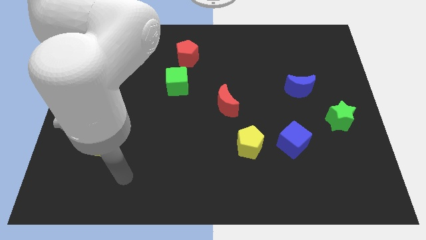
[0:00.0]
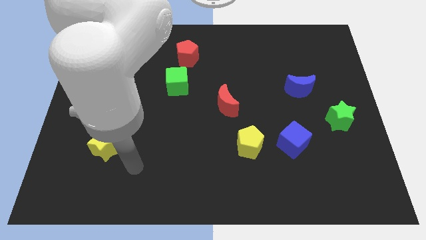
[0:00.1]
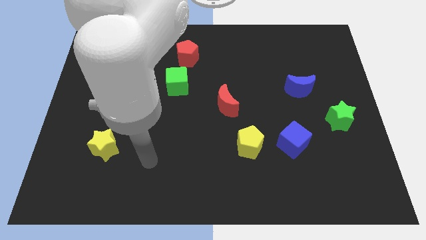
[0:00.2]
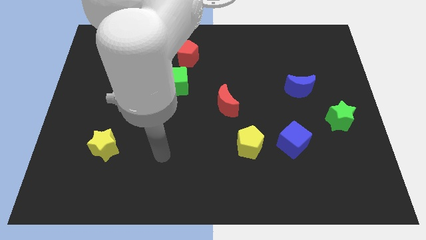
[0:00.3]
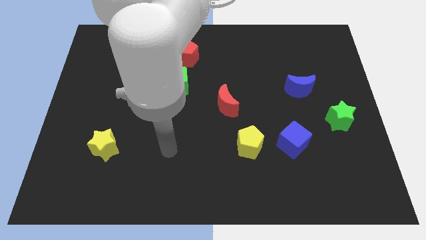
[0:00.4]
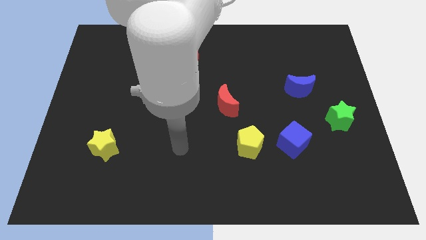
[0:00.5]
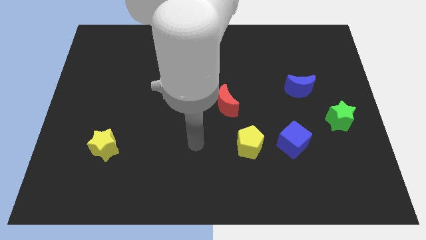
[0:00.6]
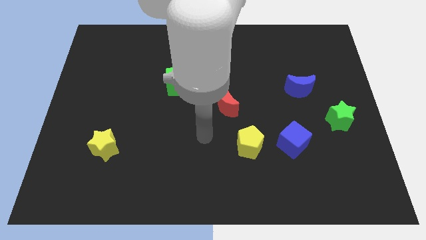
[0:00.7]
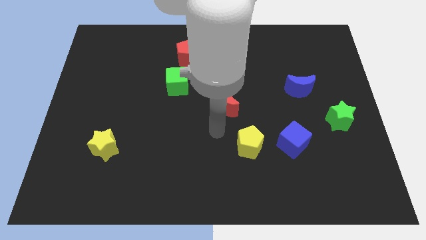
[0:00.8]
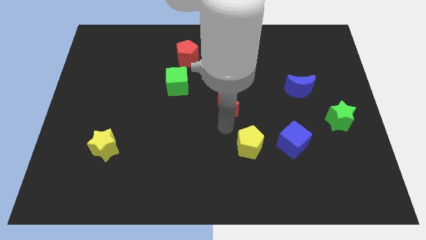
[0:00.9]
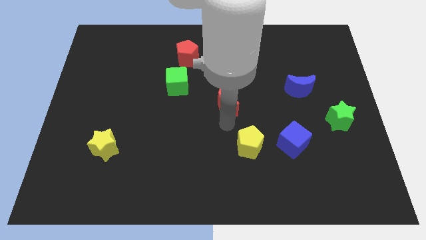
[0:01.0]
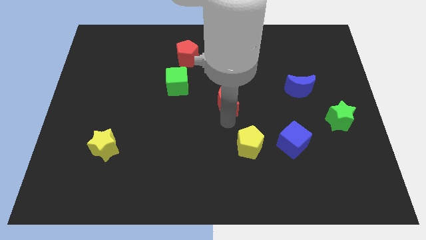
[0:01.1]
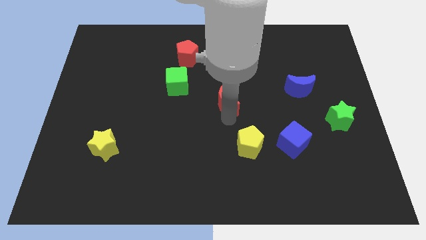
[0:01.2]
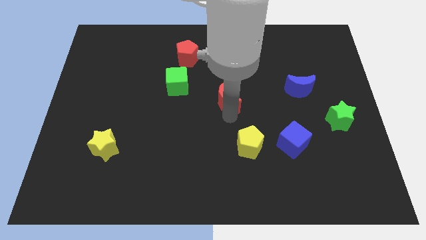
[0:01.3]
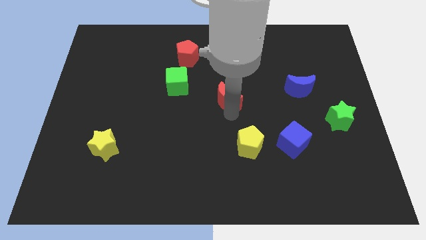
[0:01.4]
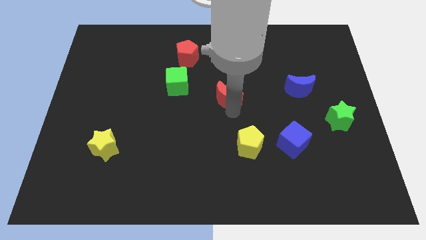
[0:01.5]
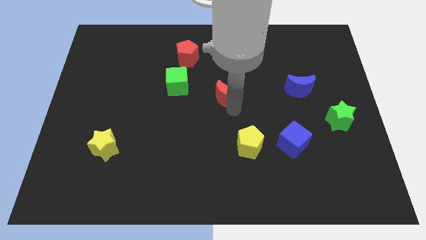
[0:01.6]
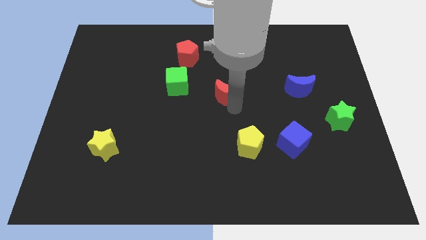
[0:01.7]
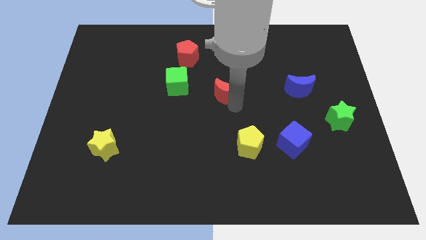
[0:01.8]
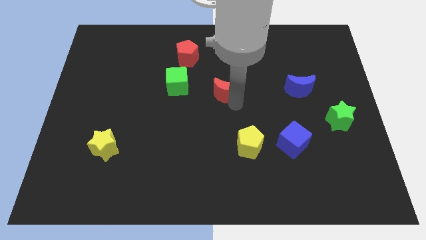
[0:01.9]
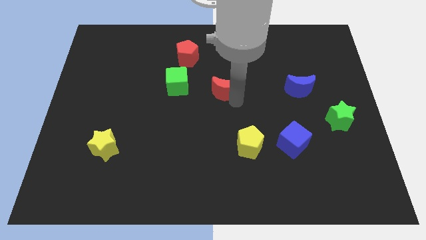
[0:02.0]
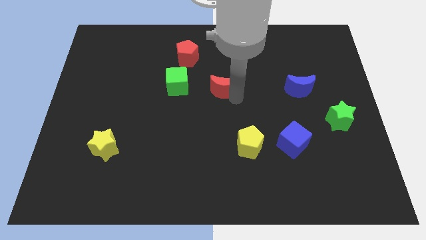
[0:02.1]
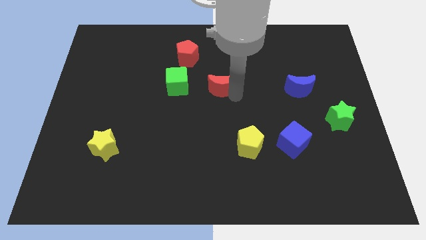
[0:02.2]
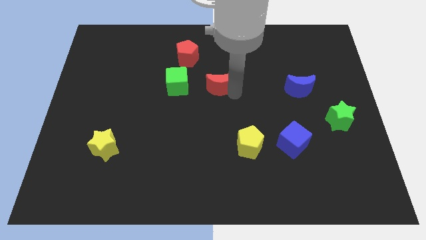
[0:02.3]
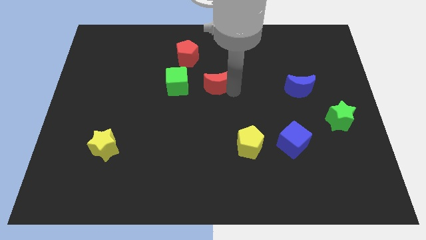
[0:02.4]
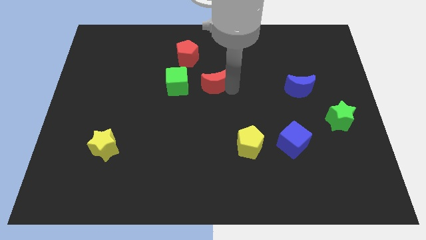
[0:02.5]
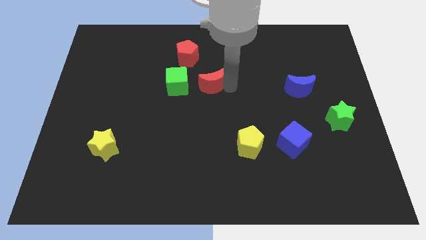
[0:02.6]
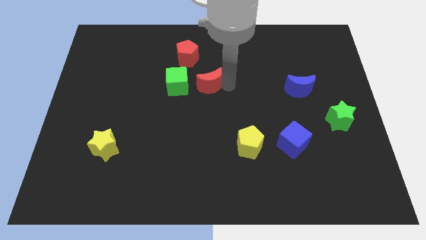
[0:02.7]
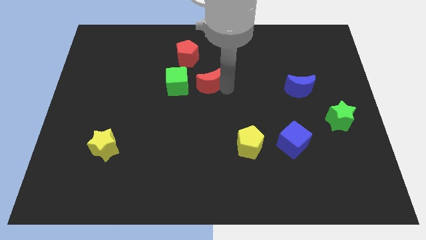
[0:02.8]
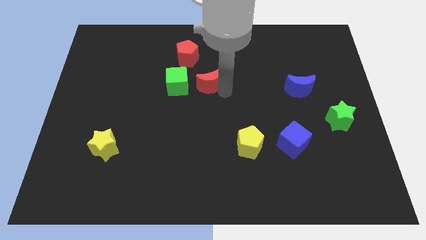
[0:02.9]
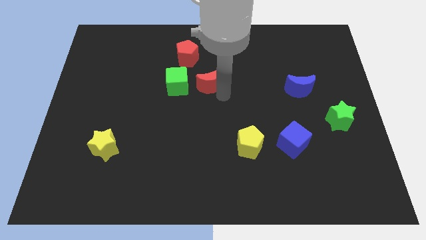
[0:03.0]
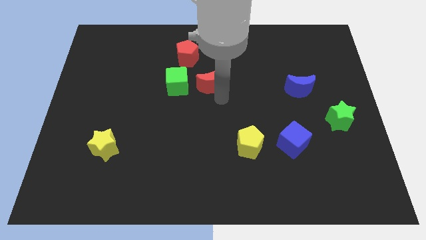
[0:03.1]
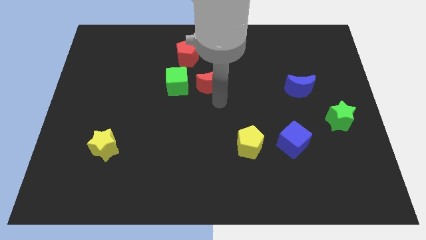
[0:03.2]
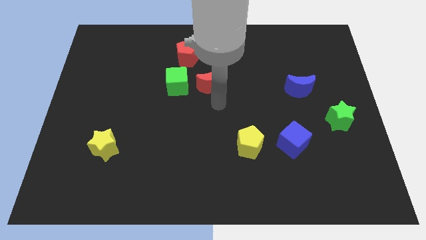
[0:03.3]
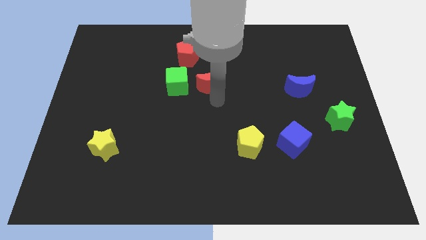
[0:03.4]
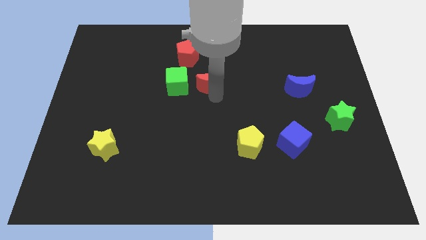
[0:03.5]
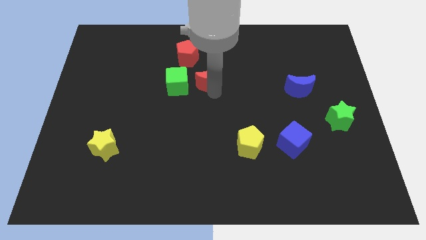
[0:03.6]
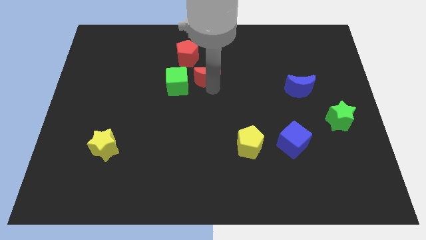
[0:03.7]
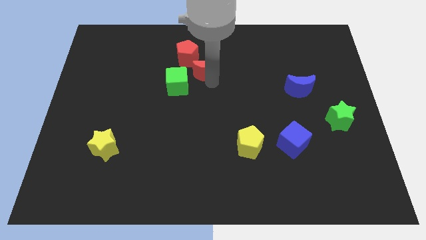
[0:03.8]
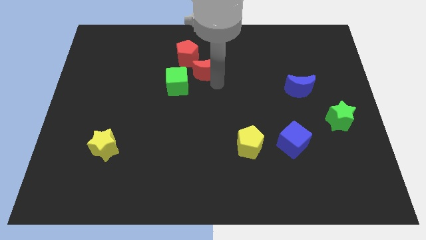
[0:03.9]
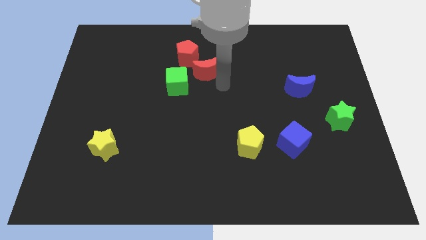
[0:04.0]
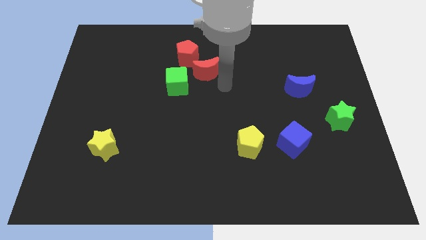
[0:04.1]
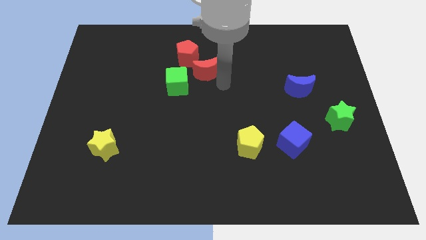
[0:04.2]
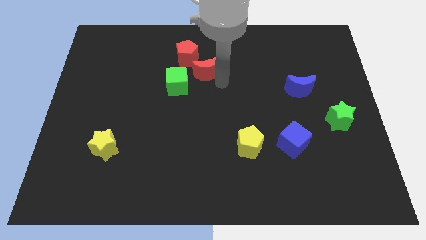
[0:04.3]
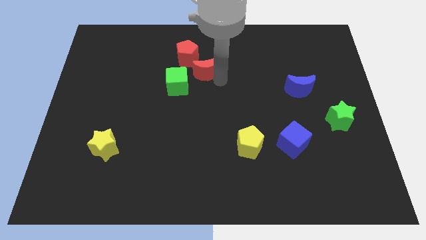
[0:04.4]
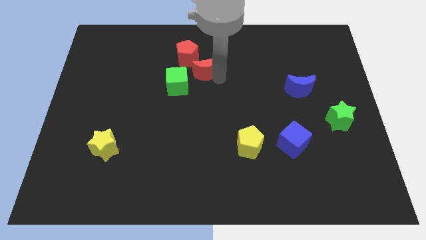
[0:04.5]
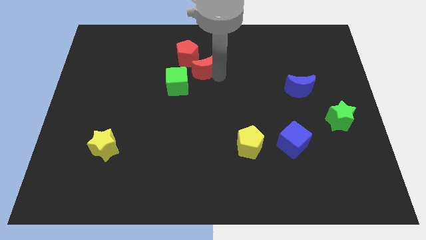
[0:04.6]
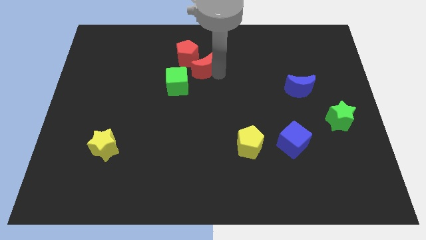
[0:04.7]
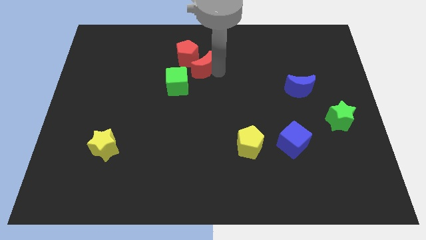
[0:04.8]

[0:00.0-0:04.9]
put the red moon close to the red pentagon

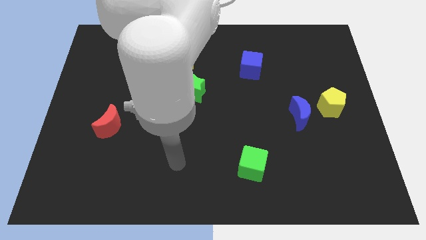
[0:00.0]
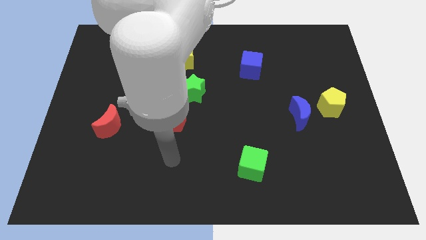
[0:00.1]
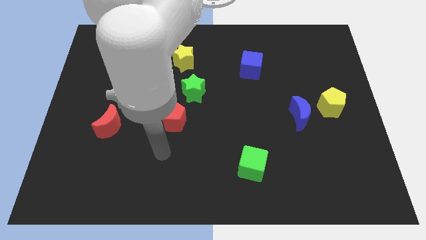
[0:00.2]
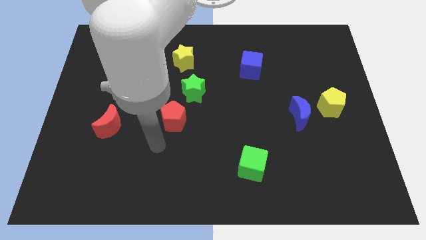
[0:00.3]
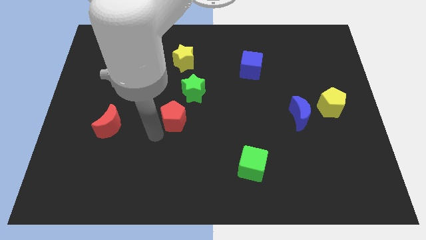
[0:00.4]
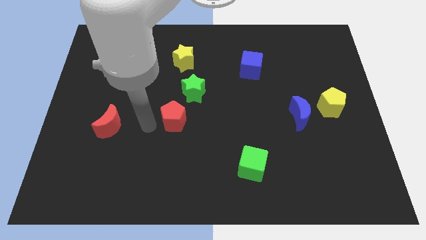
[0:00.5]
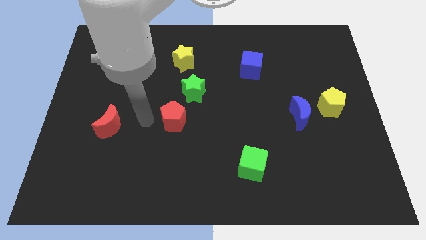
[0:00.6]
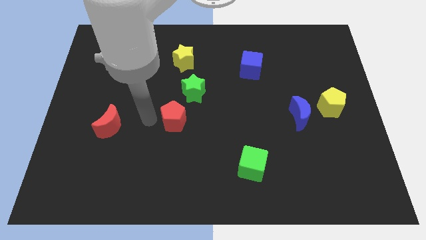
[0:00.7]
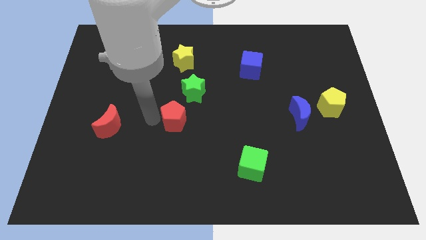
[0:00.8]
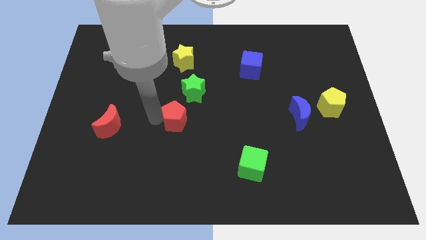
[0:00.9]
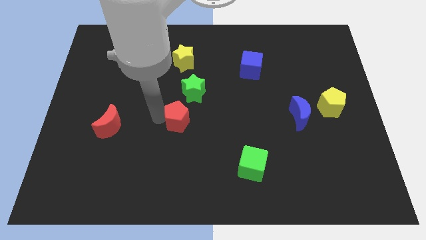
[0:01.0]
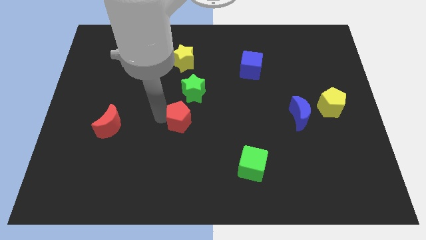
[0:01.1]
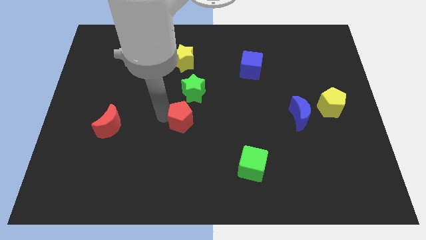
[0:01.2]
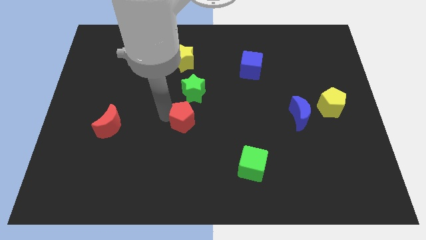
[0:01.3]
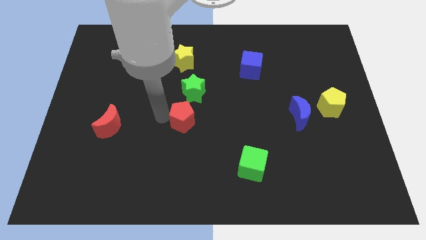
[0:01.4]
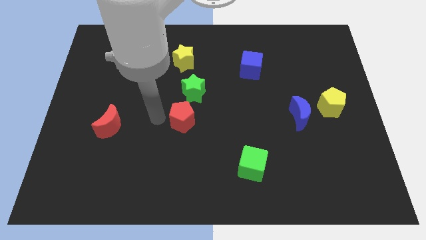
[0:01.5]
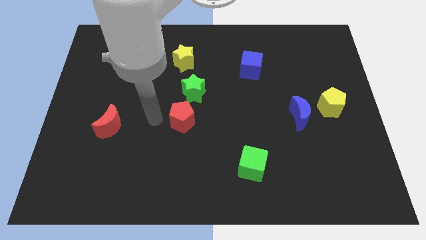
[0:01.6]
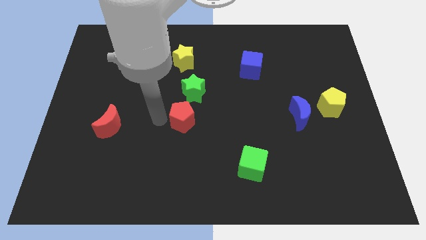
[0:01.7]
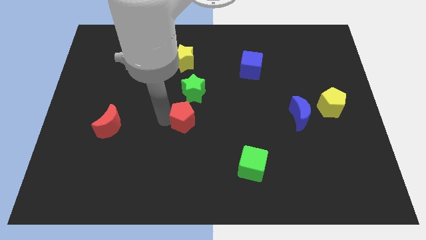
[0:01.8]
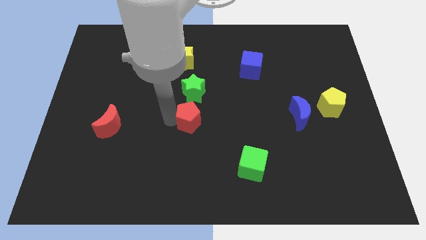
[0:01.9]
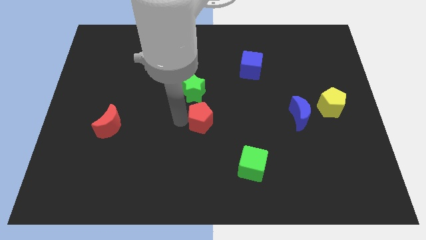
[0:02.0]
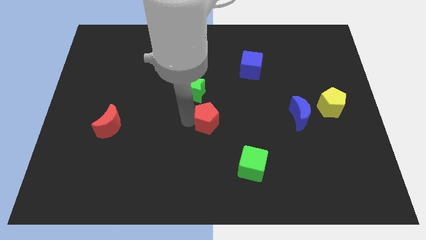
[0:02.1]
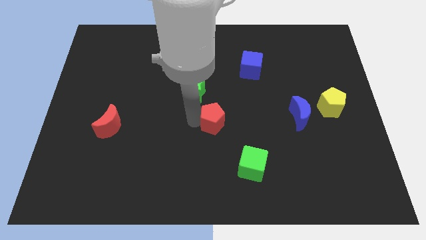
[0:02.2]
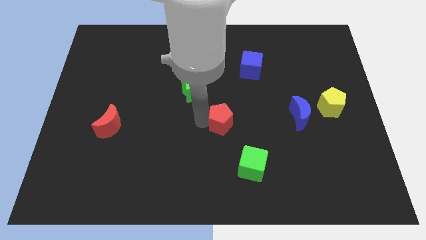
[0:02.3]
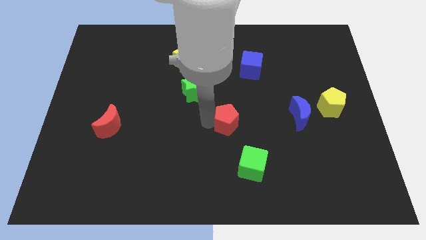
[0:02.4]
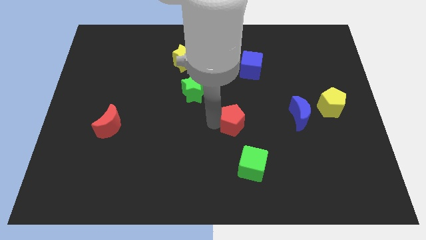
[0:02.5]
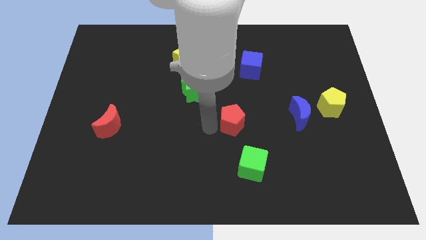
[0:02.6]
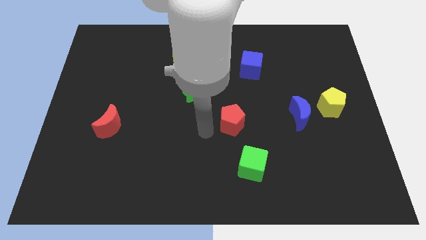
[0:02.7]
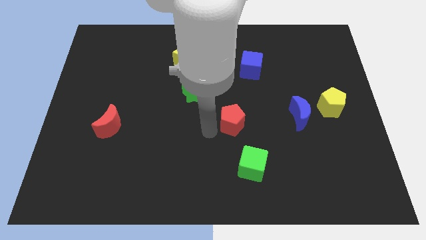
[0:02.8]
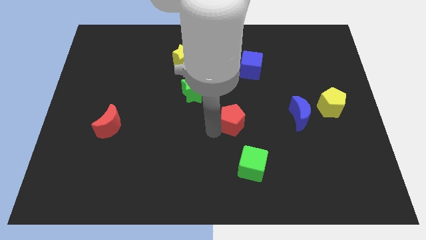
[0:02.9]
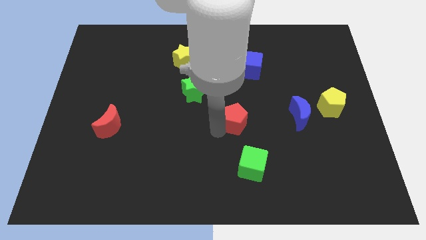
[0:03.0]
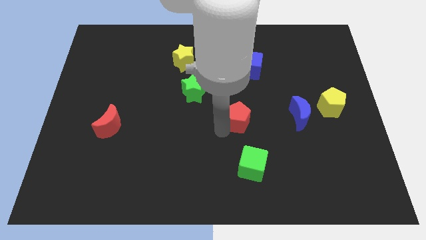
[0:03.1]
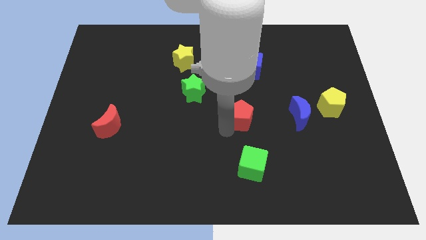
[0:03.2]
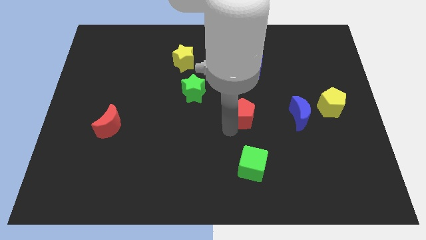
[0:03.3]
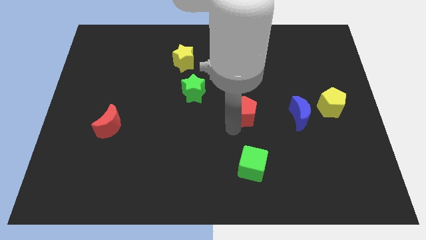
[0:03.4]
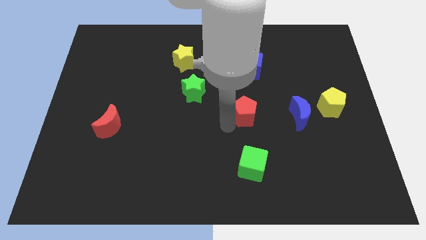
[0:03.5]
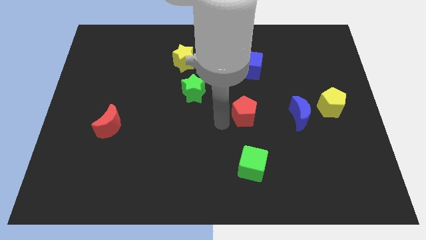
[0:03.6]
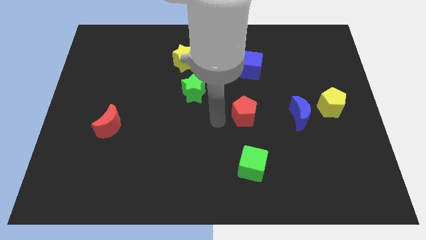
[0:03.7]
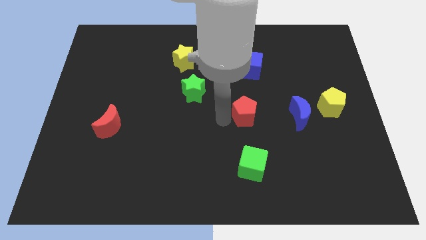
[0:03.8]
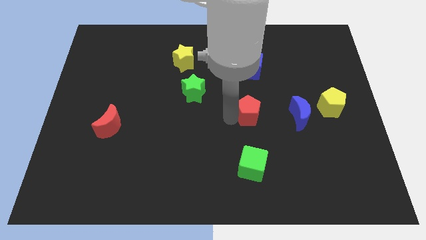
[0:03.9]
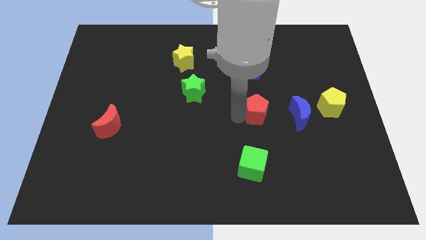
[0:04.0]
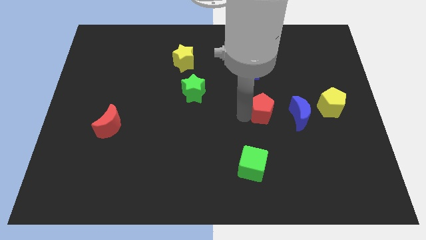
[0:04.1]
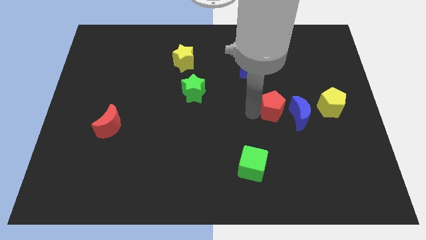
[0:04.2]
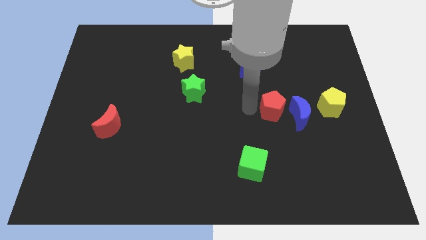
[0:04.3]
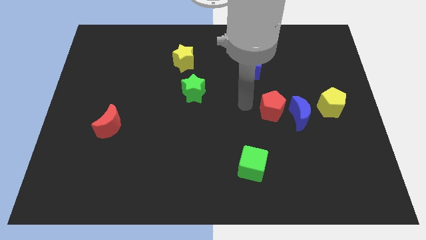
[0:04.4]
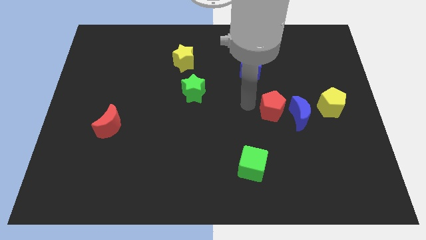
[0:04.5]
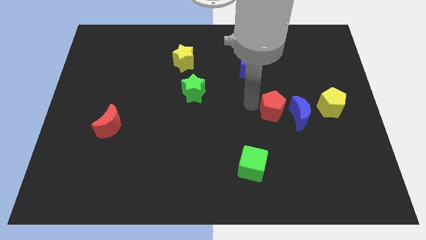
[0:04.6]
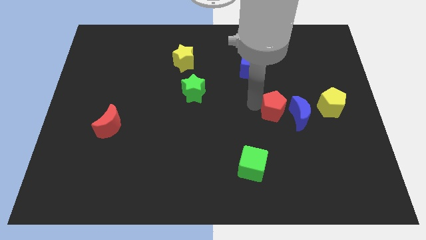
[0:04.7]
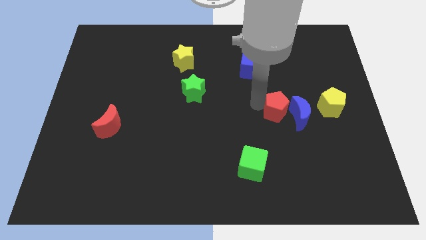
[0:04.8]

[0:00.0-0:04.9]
move the red pentagon next to the blue moon
